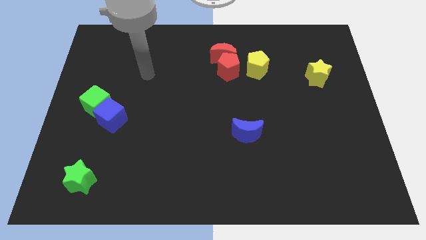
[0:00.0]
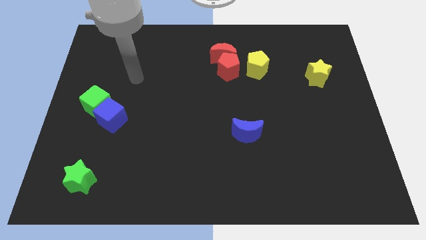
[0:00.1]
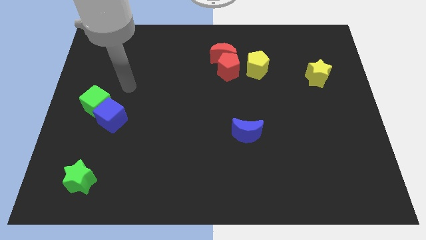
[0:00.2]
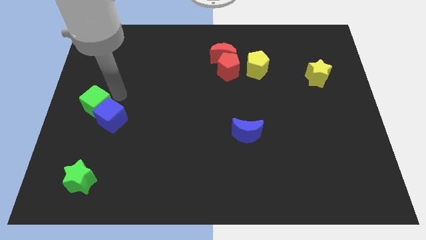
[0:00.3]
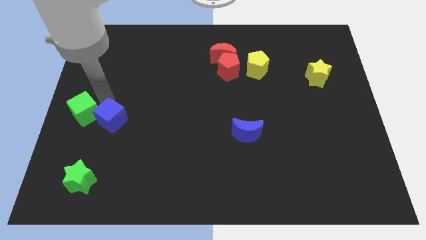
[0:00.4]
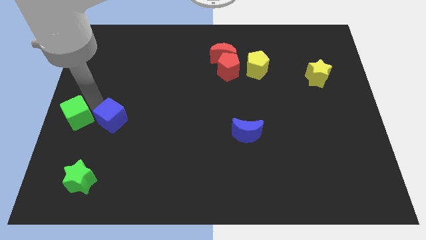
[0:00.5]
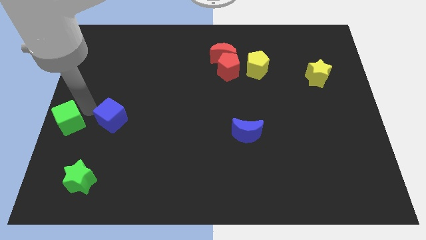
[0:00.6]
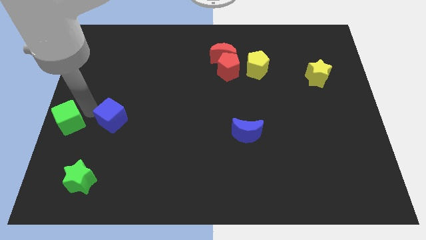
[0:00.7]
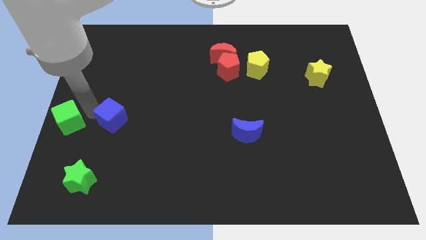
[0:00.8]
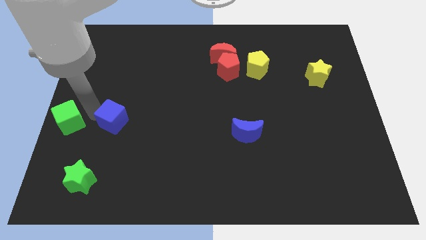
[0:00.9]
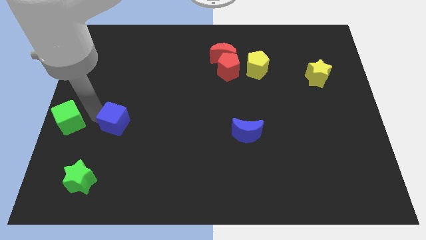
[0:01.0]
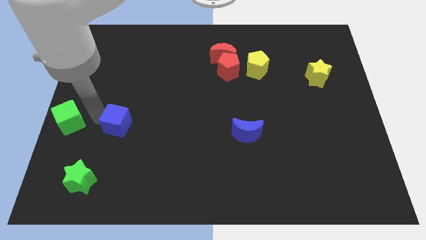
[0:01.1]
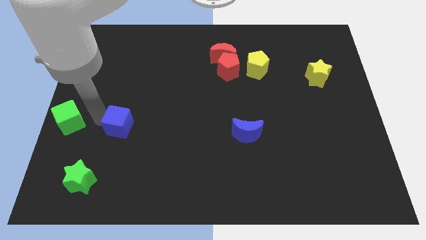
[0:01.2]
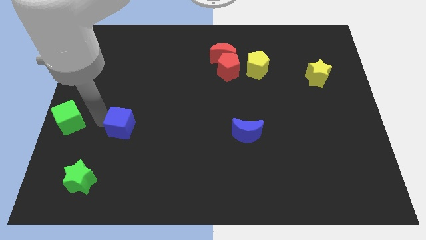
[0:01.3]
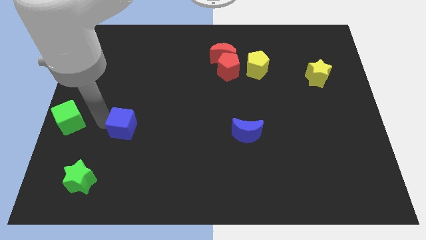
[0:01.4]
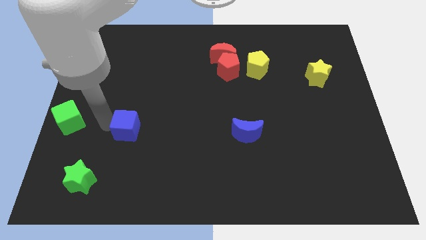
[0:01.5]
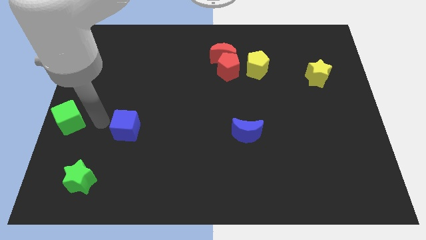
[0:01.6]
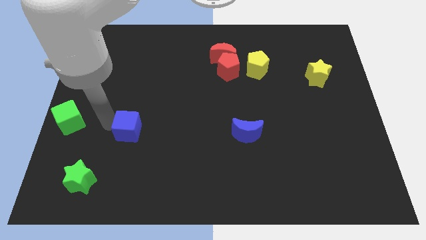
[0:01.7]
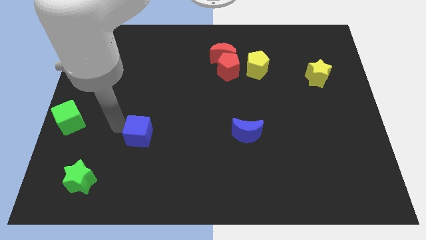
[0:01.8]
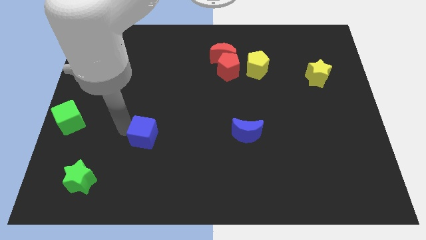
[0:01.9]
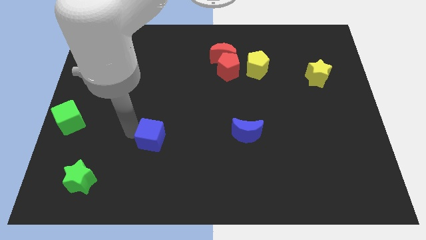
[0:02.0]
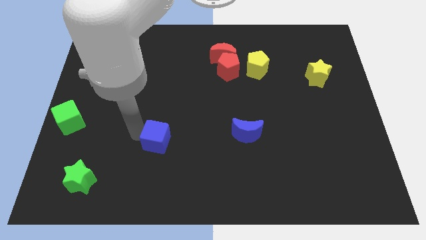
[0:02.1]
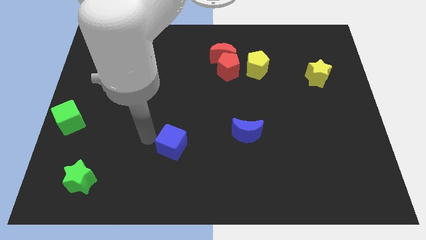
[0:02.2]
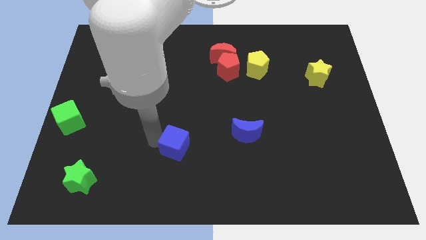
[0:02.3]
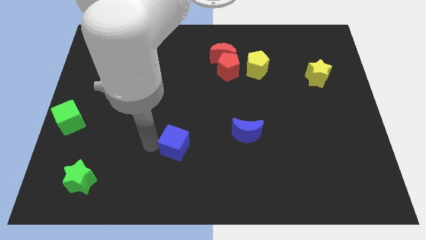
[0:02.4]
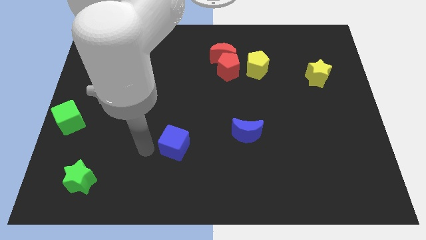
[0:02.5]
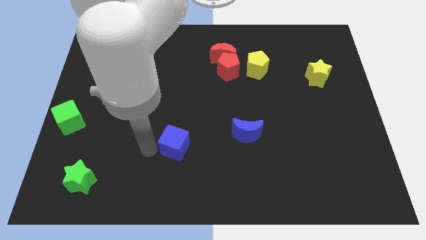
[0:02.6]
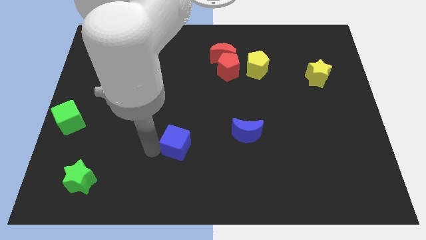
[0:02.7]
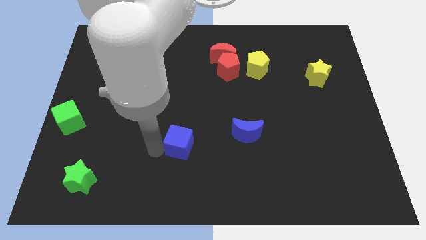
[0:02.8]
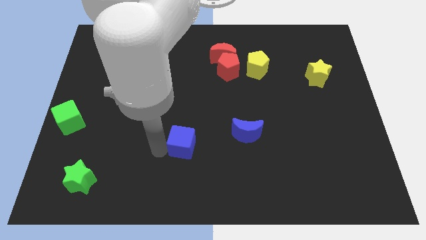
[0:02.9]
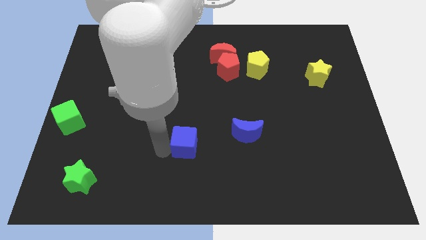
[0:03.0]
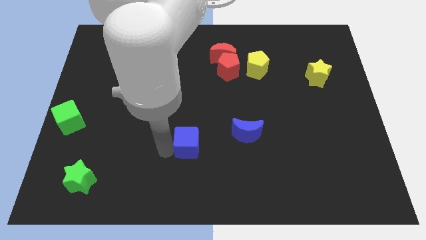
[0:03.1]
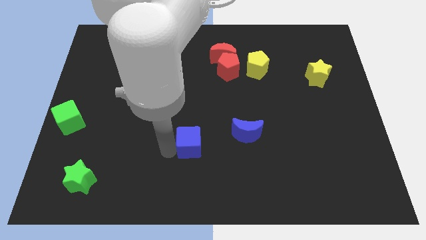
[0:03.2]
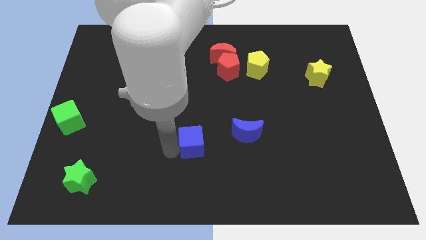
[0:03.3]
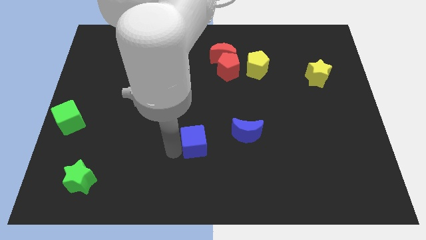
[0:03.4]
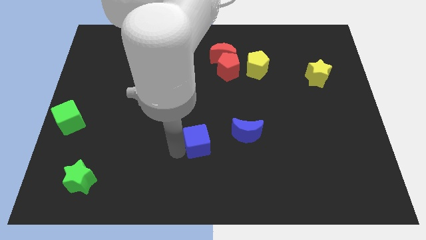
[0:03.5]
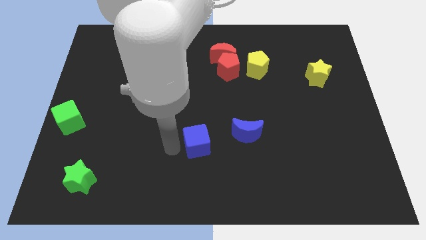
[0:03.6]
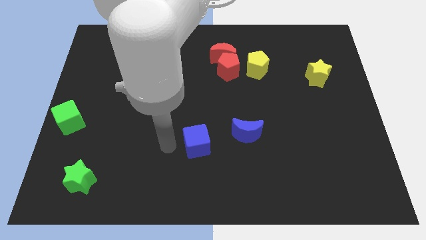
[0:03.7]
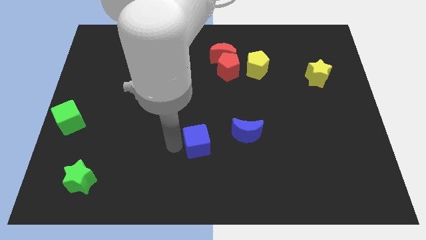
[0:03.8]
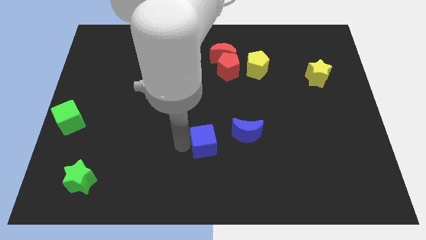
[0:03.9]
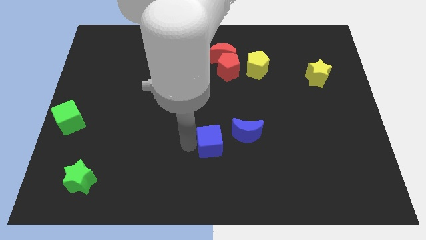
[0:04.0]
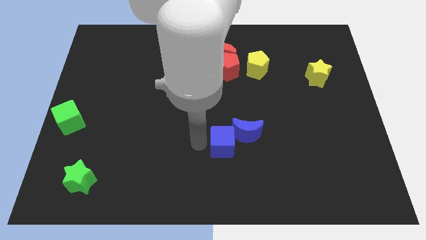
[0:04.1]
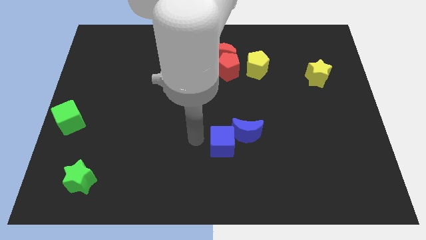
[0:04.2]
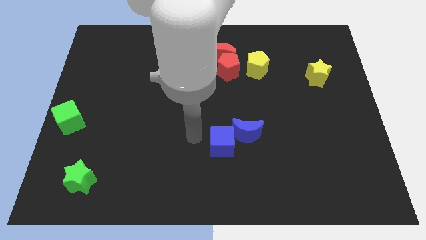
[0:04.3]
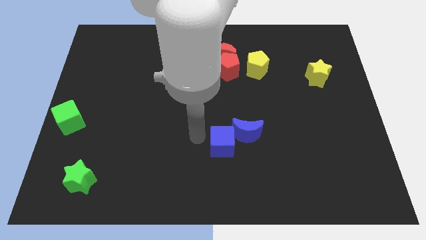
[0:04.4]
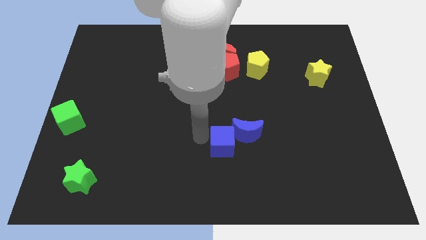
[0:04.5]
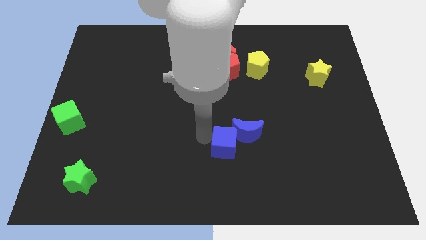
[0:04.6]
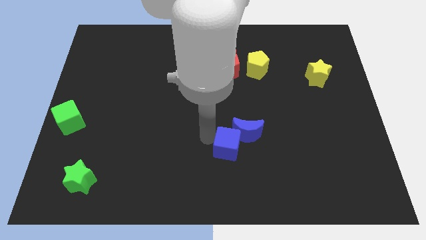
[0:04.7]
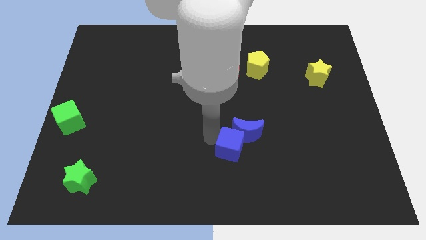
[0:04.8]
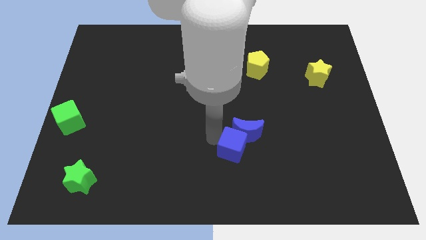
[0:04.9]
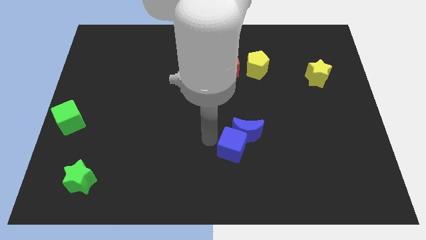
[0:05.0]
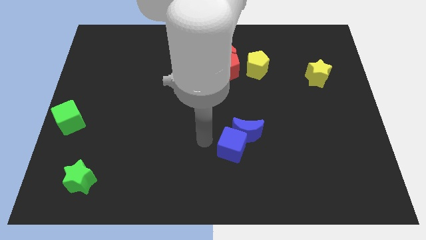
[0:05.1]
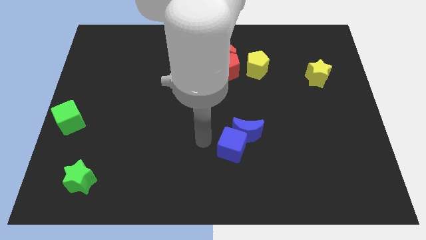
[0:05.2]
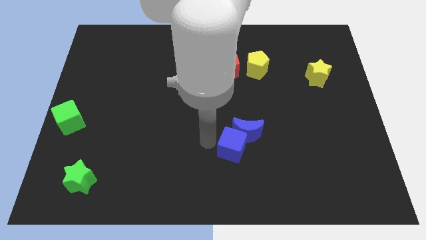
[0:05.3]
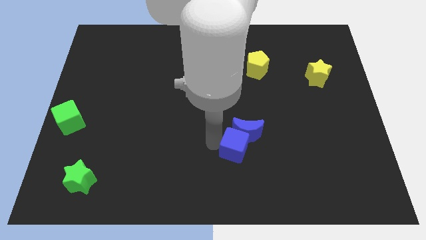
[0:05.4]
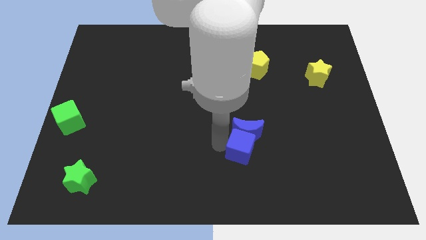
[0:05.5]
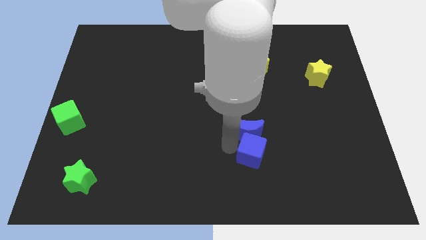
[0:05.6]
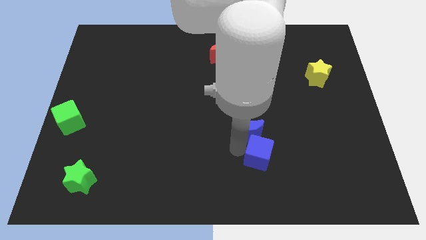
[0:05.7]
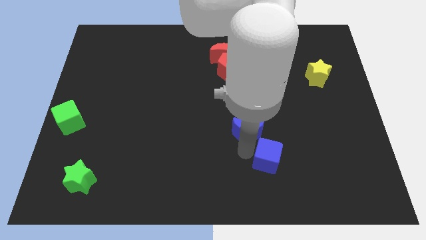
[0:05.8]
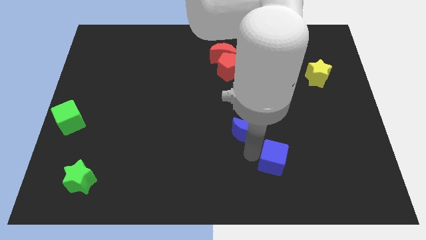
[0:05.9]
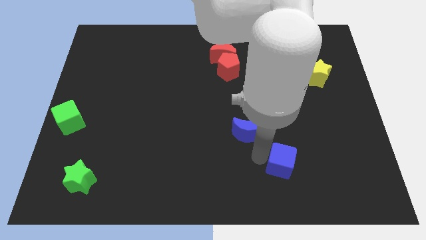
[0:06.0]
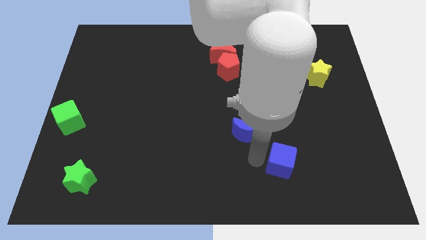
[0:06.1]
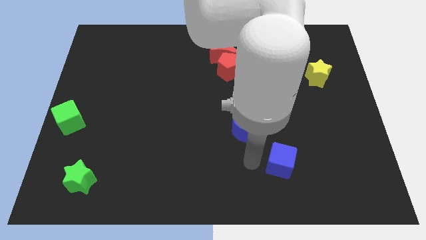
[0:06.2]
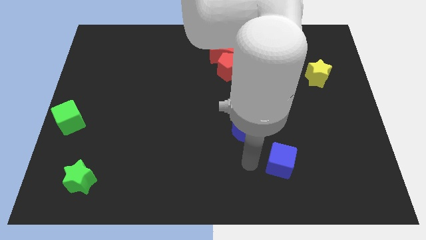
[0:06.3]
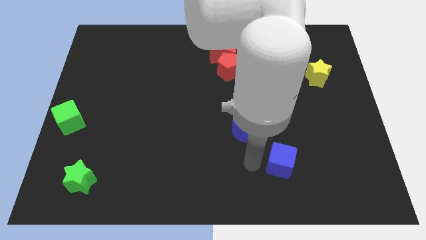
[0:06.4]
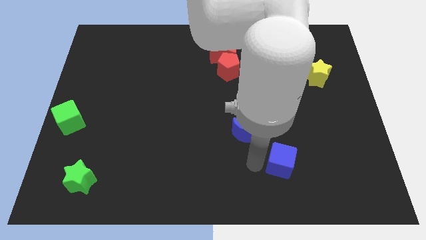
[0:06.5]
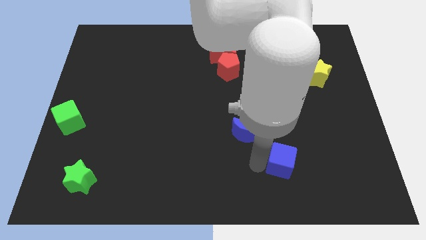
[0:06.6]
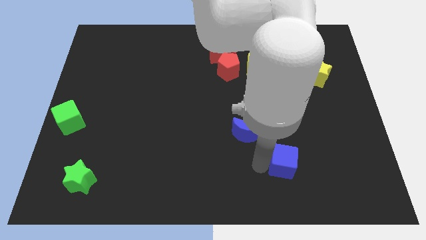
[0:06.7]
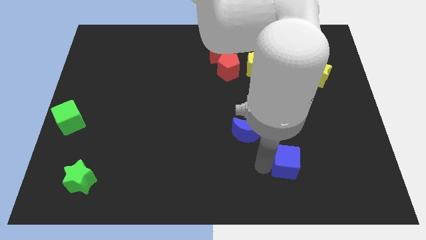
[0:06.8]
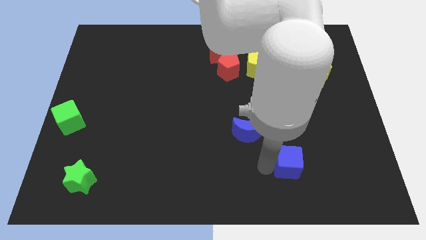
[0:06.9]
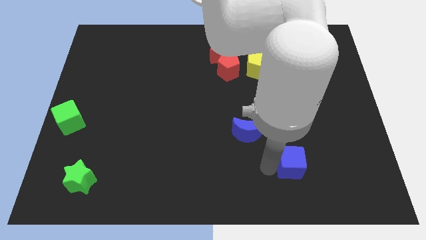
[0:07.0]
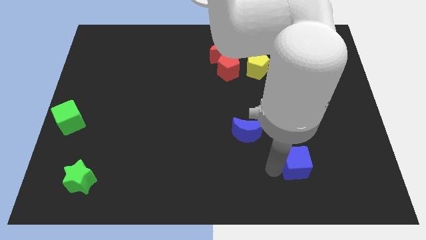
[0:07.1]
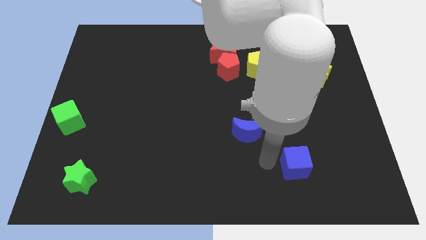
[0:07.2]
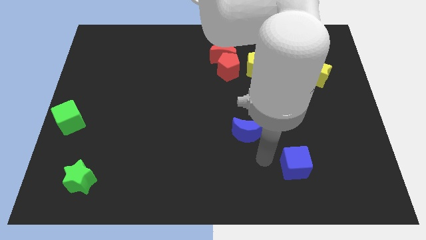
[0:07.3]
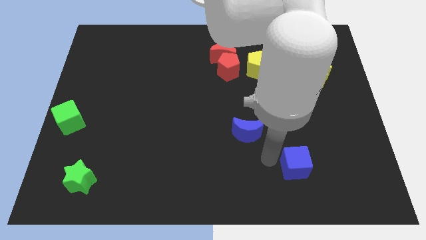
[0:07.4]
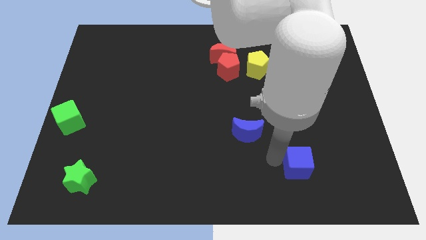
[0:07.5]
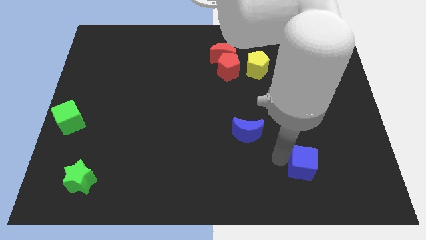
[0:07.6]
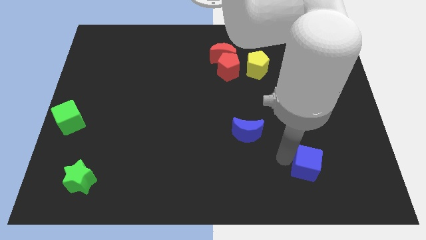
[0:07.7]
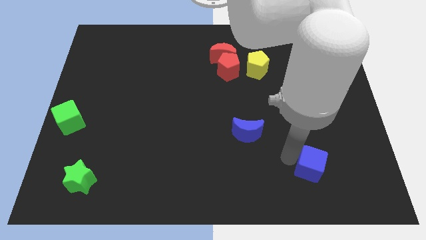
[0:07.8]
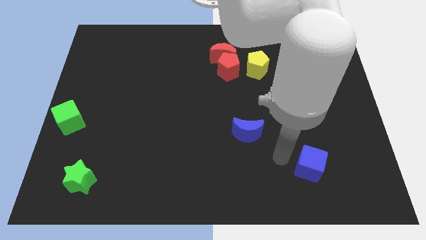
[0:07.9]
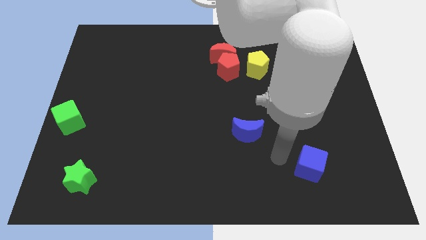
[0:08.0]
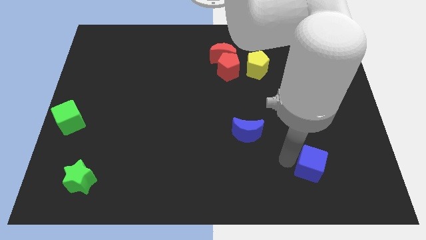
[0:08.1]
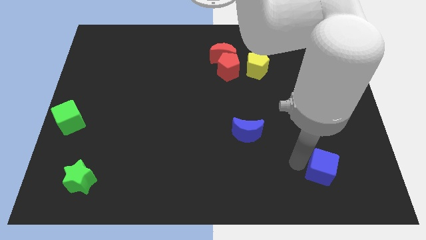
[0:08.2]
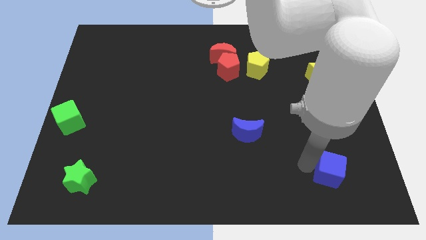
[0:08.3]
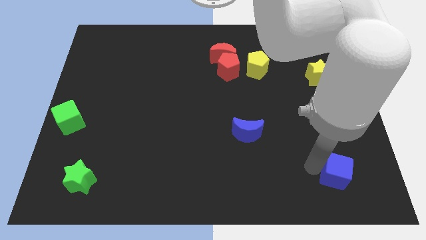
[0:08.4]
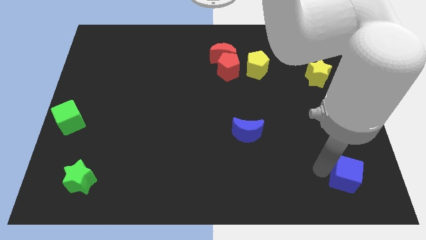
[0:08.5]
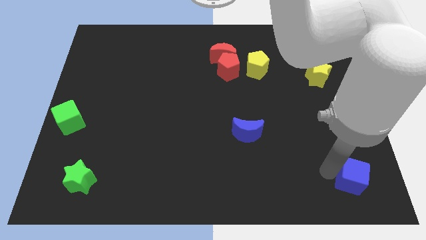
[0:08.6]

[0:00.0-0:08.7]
put the blue cube to the lower right corner
